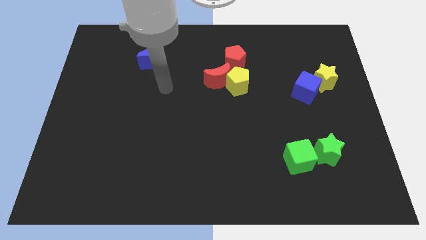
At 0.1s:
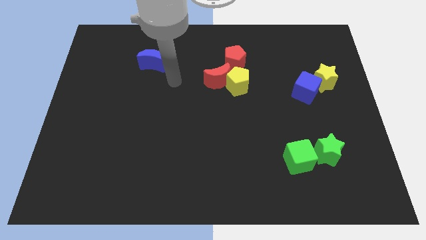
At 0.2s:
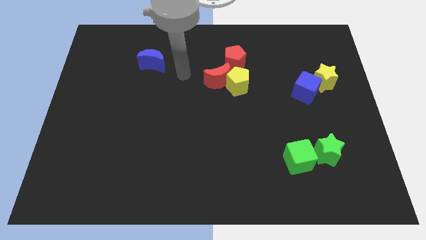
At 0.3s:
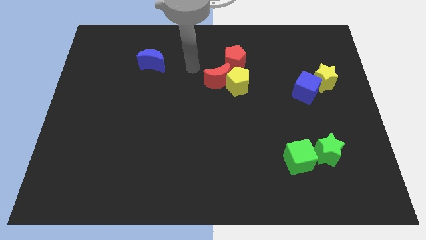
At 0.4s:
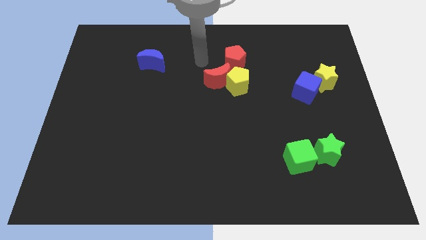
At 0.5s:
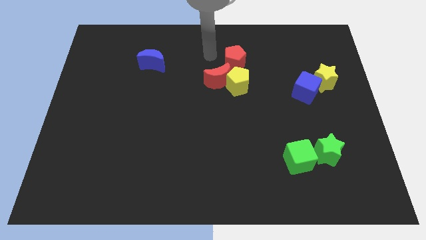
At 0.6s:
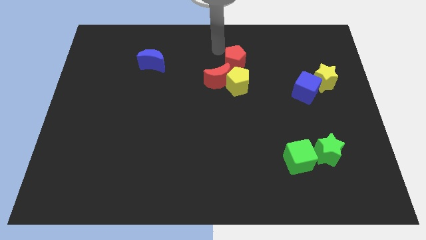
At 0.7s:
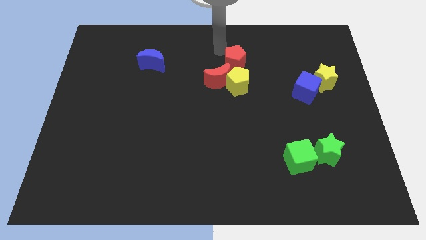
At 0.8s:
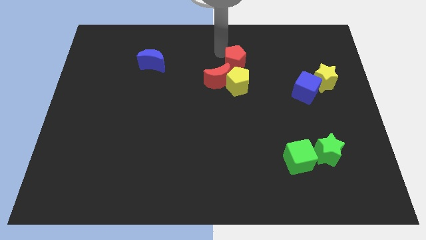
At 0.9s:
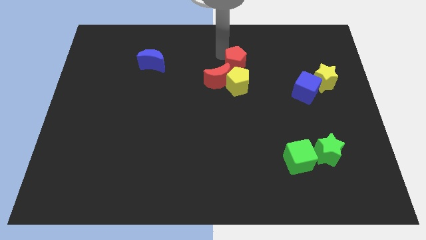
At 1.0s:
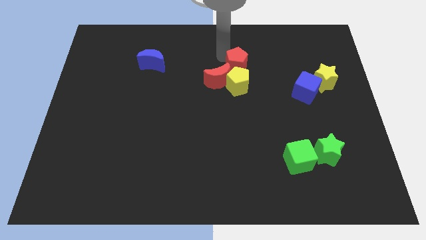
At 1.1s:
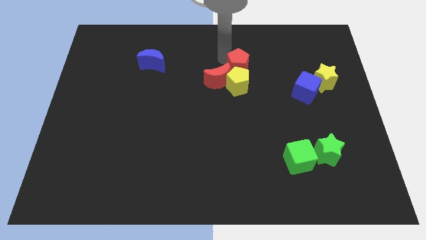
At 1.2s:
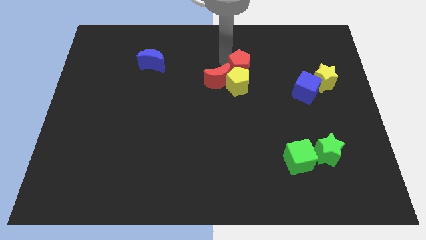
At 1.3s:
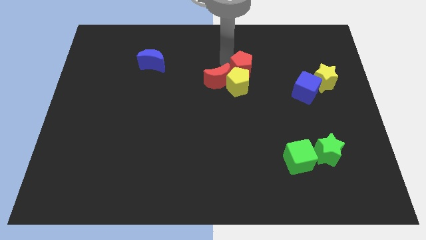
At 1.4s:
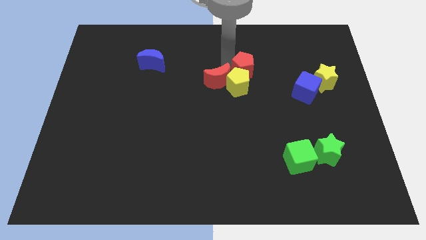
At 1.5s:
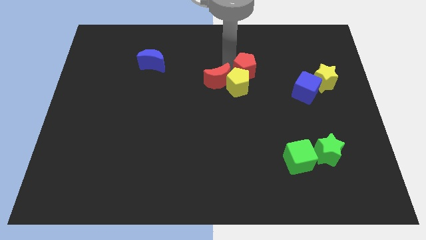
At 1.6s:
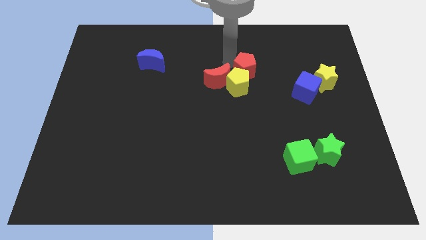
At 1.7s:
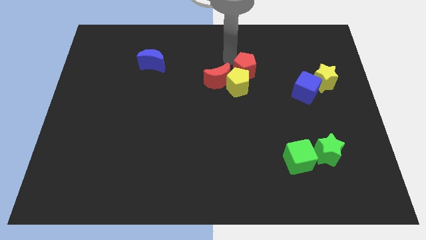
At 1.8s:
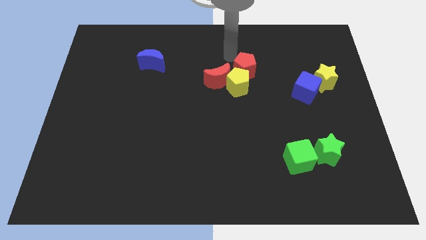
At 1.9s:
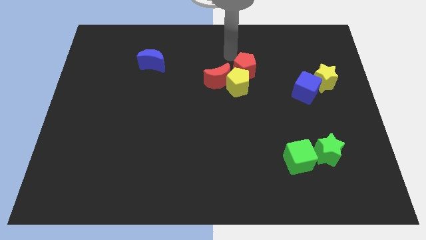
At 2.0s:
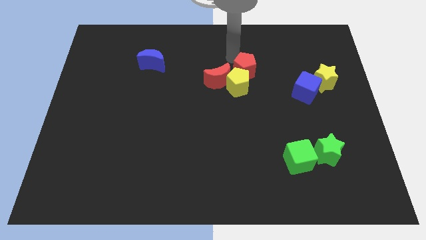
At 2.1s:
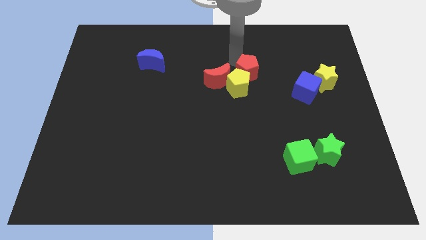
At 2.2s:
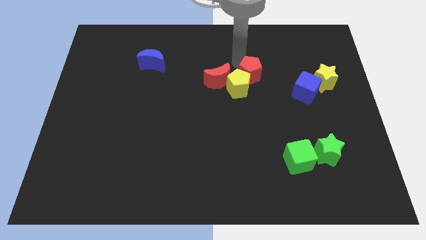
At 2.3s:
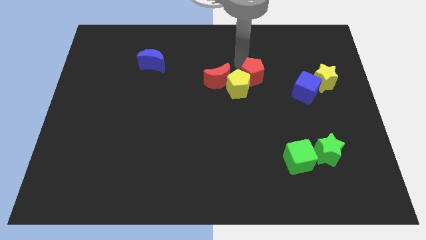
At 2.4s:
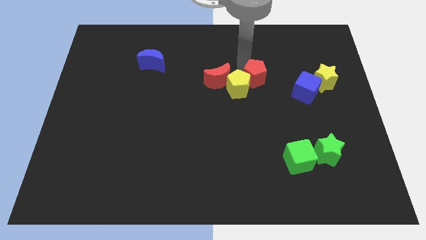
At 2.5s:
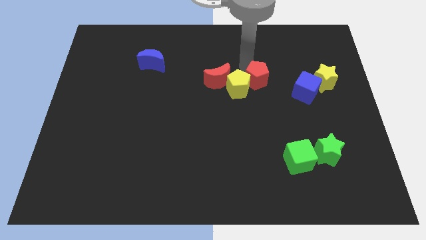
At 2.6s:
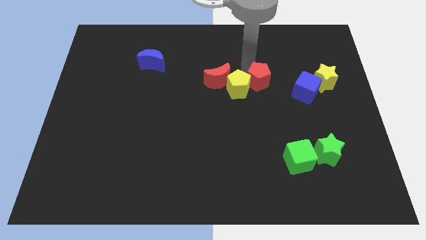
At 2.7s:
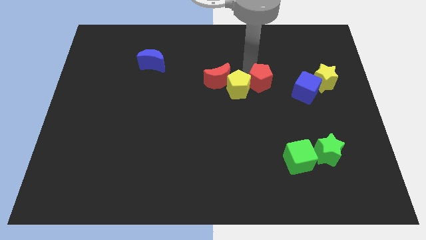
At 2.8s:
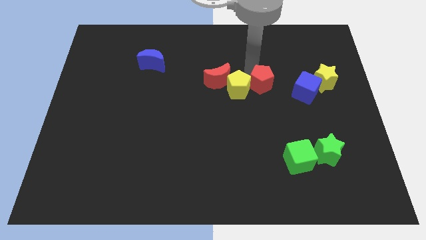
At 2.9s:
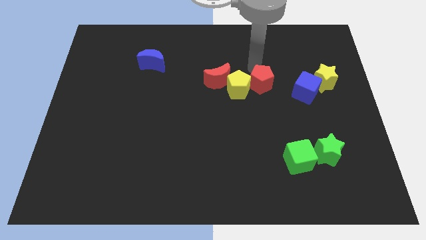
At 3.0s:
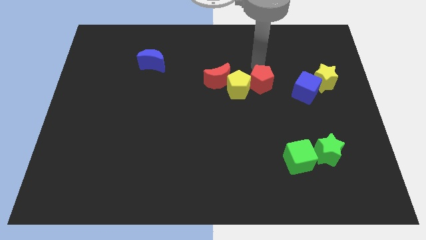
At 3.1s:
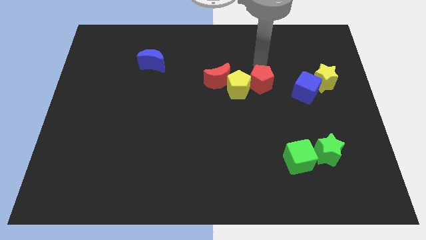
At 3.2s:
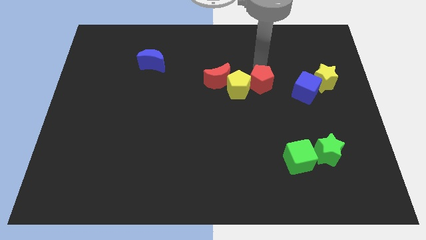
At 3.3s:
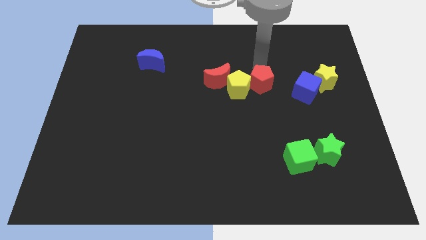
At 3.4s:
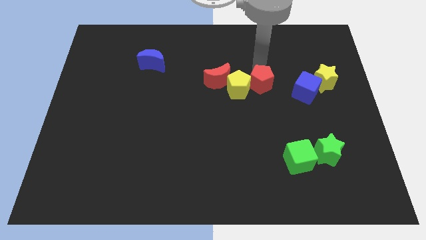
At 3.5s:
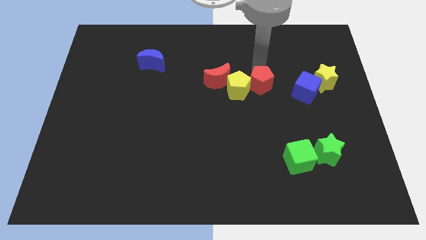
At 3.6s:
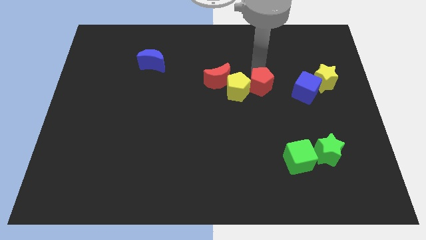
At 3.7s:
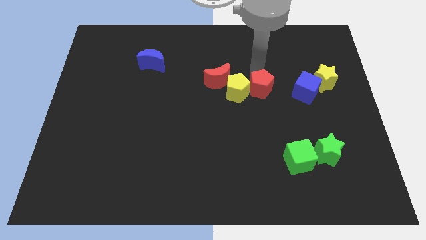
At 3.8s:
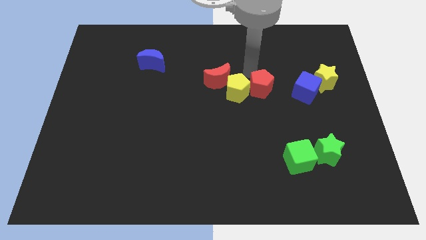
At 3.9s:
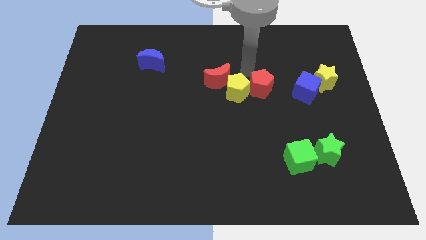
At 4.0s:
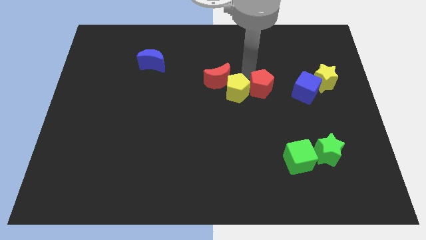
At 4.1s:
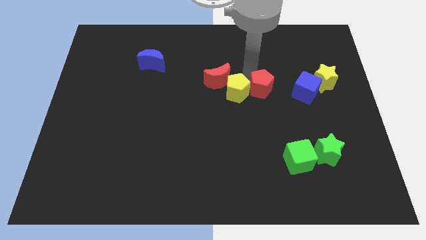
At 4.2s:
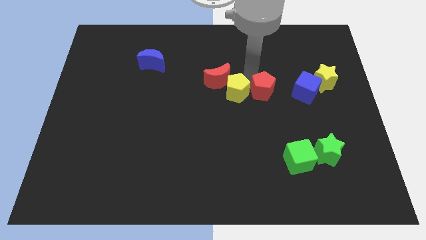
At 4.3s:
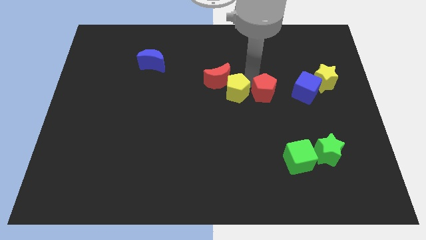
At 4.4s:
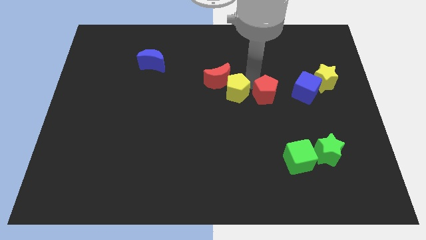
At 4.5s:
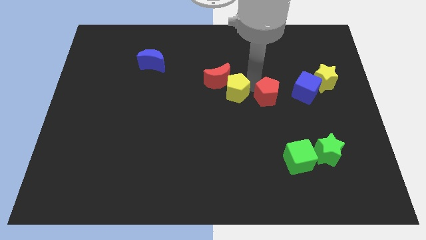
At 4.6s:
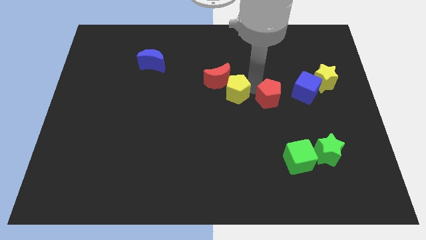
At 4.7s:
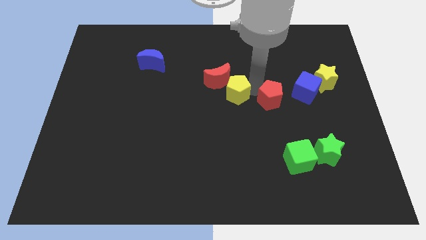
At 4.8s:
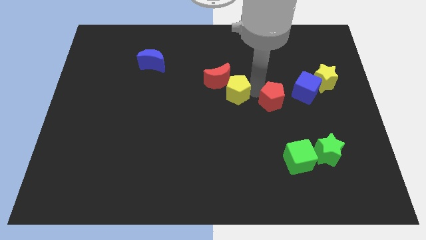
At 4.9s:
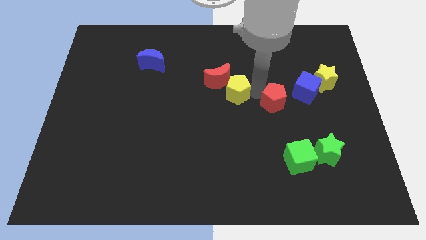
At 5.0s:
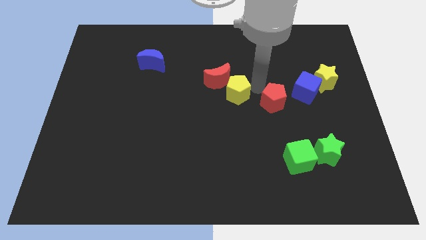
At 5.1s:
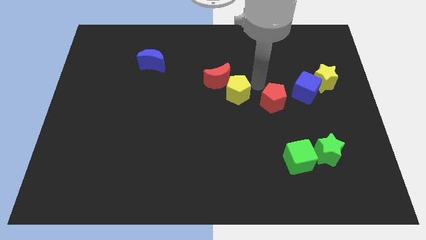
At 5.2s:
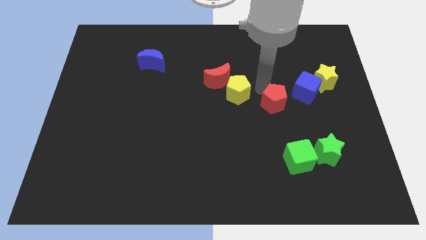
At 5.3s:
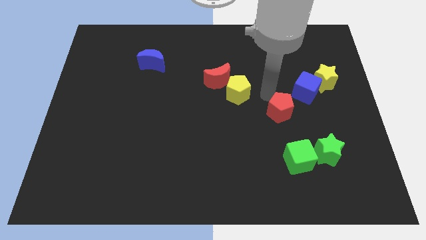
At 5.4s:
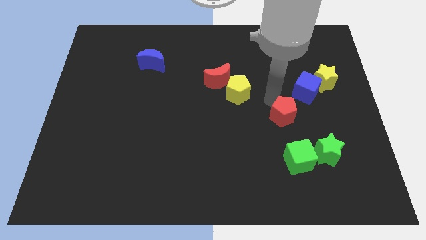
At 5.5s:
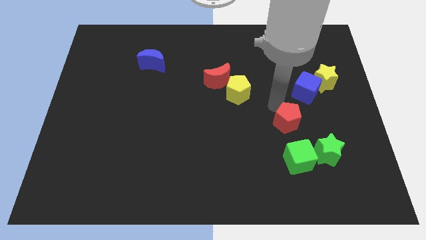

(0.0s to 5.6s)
push the red pentagon to the top left side of the green star

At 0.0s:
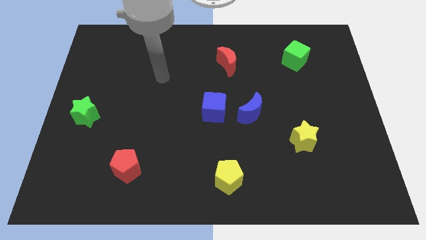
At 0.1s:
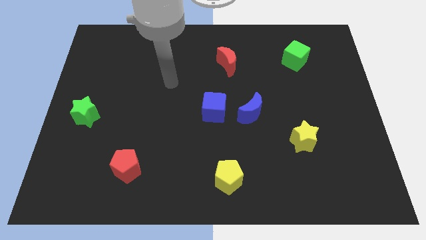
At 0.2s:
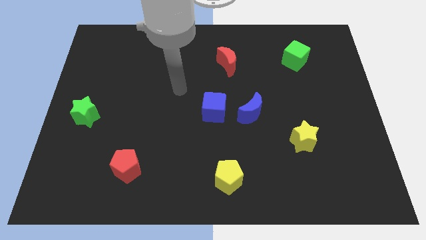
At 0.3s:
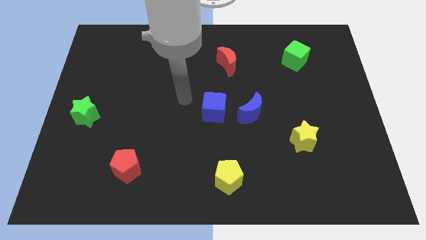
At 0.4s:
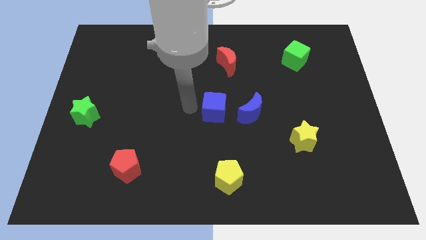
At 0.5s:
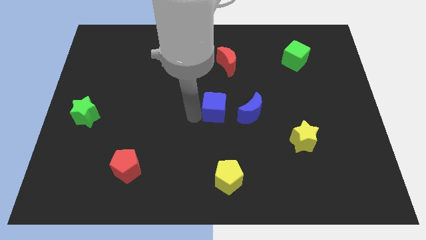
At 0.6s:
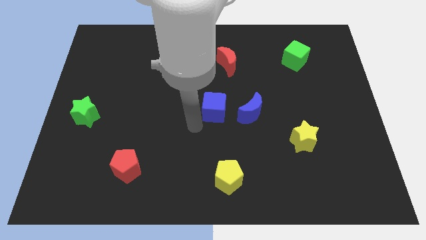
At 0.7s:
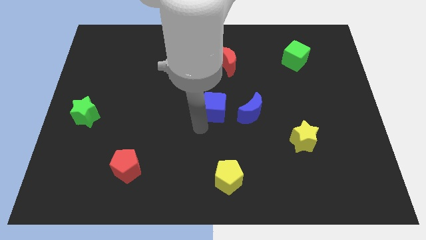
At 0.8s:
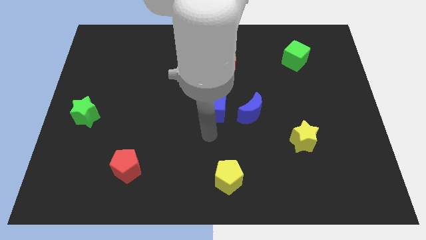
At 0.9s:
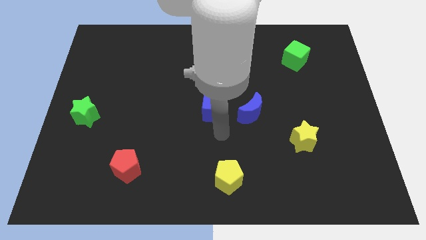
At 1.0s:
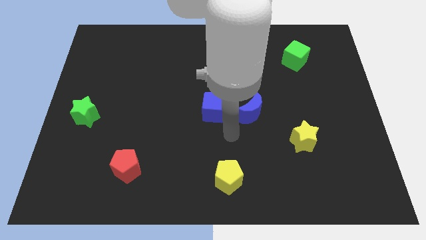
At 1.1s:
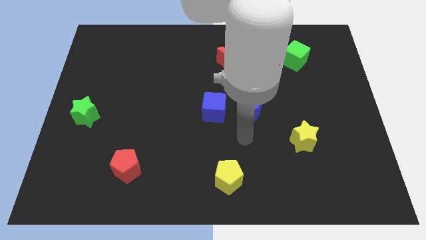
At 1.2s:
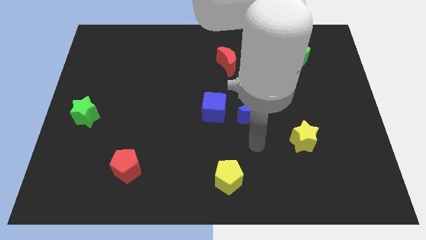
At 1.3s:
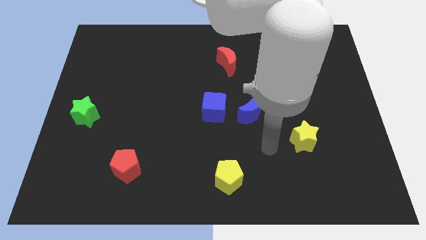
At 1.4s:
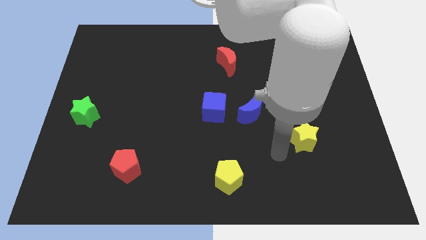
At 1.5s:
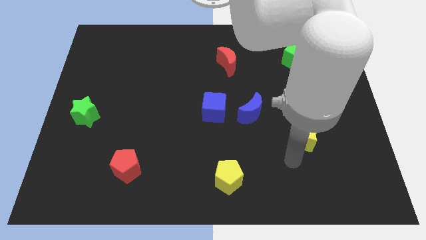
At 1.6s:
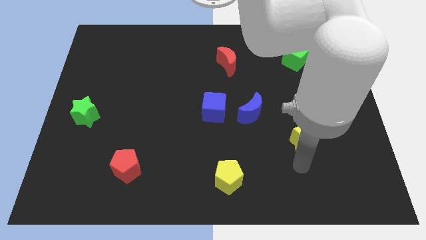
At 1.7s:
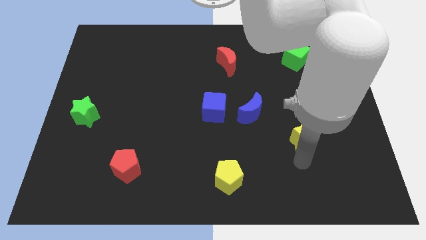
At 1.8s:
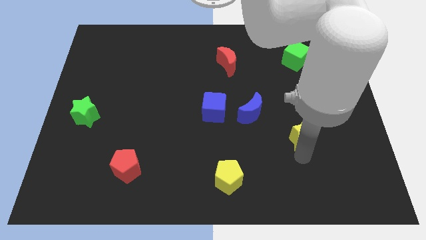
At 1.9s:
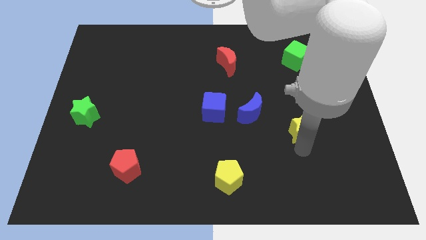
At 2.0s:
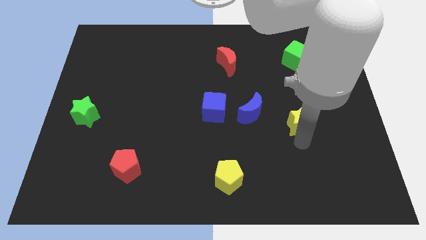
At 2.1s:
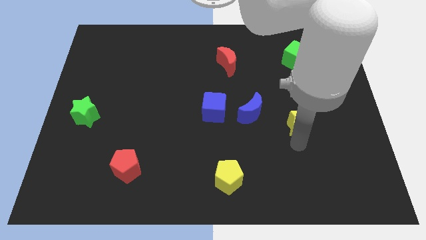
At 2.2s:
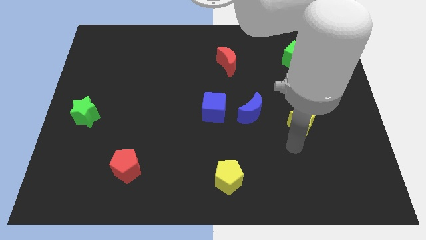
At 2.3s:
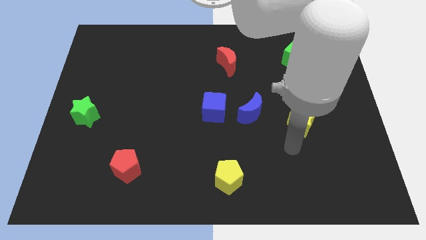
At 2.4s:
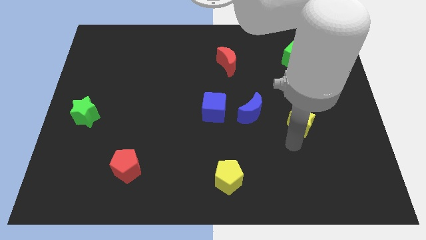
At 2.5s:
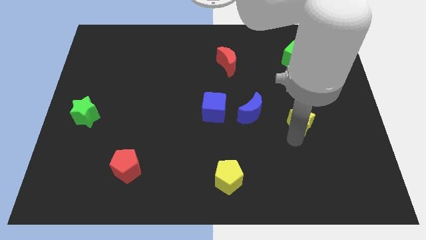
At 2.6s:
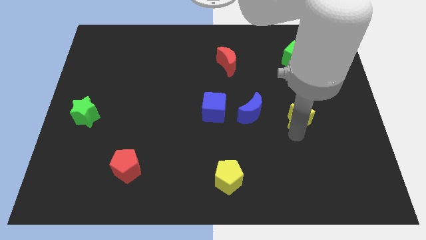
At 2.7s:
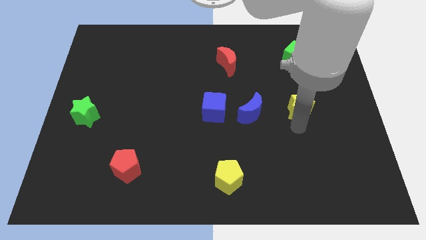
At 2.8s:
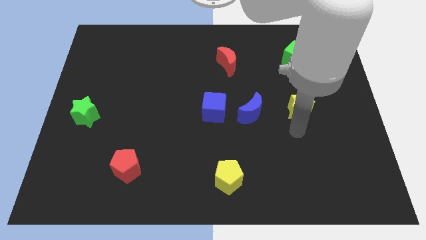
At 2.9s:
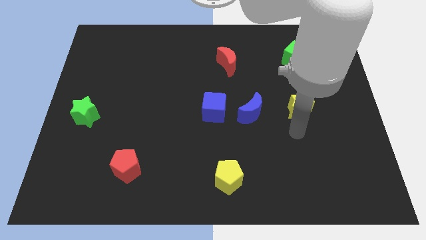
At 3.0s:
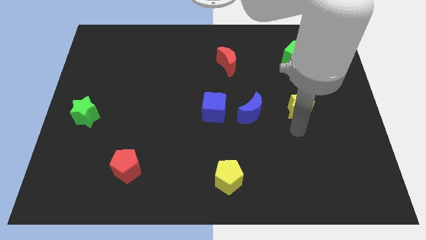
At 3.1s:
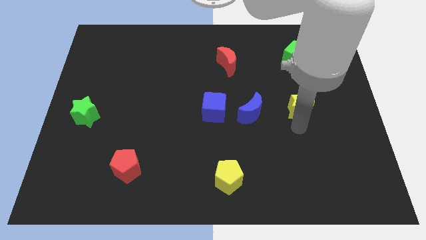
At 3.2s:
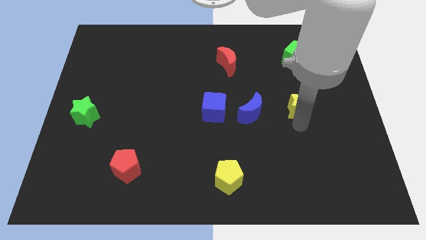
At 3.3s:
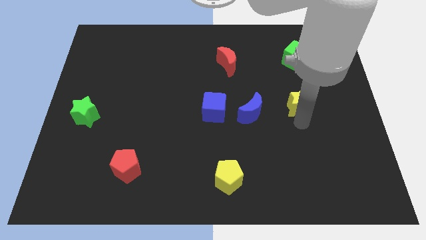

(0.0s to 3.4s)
push the yellow star to the bottom side of the green cube
